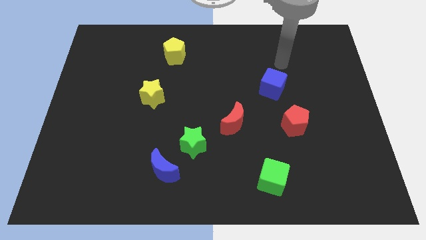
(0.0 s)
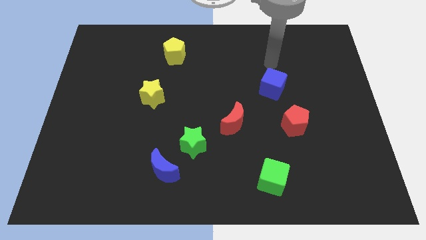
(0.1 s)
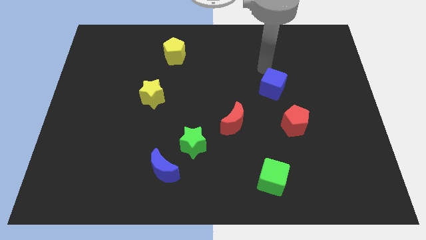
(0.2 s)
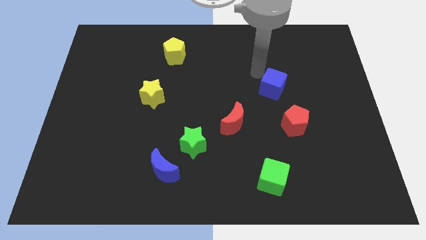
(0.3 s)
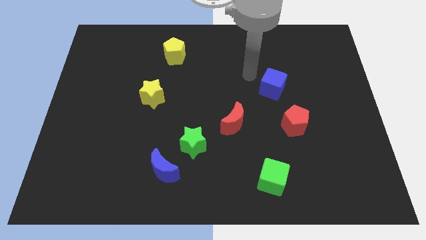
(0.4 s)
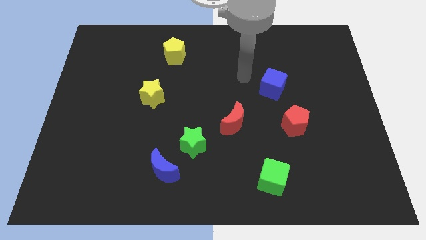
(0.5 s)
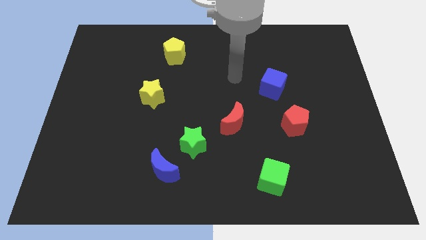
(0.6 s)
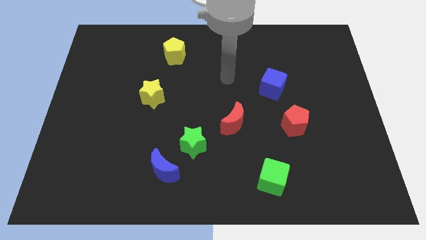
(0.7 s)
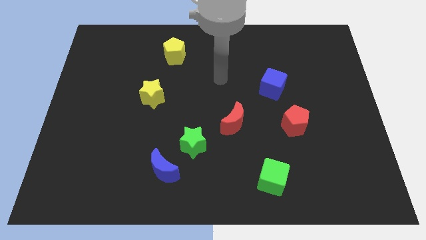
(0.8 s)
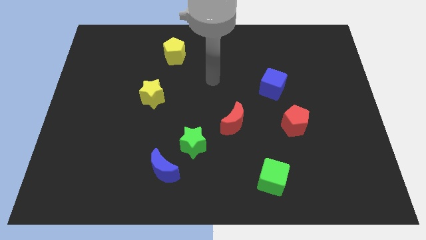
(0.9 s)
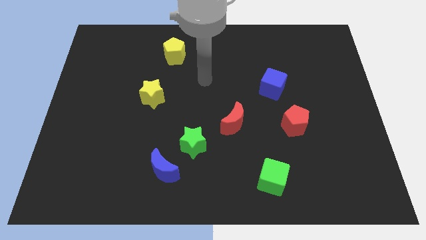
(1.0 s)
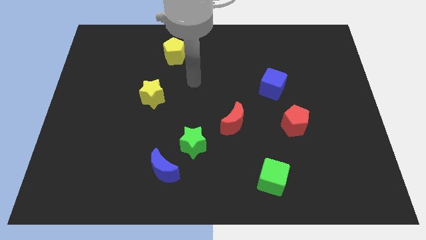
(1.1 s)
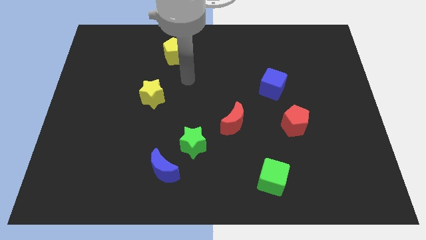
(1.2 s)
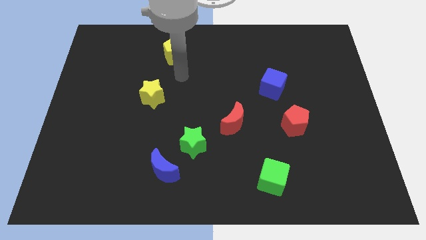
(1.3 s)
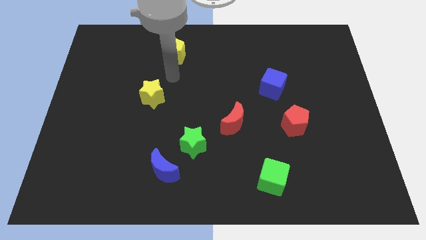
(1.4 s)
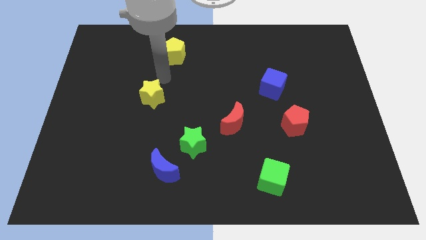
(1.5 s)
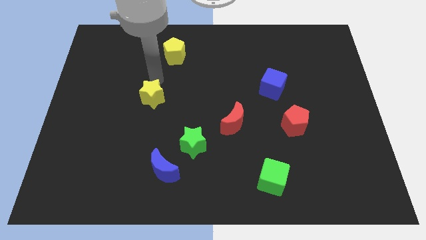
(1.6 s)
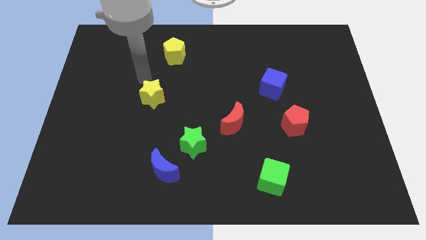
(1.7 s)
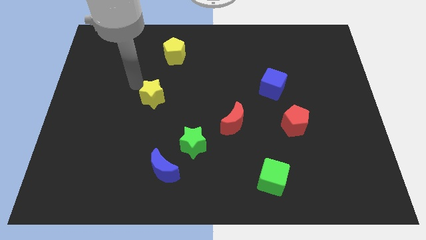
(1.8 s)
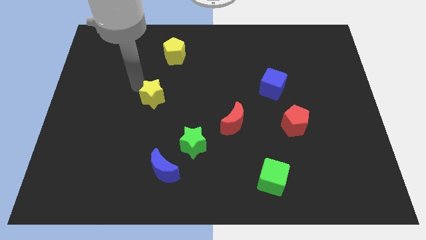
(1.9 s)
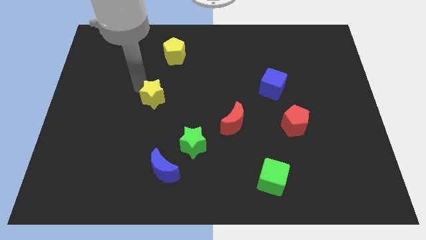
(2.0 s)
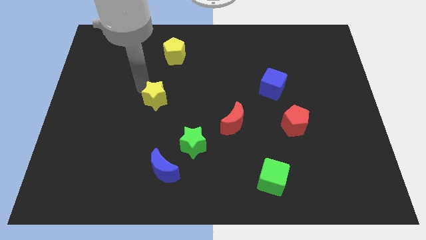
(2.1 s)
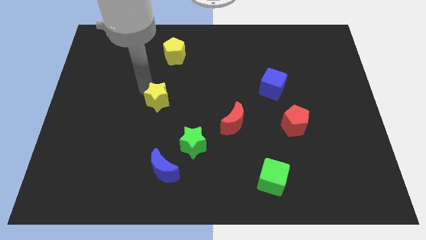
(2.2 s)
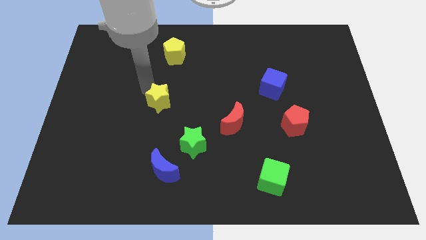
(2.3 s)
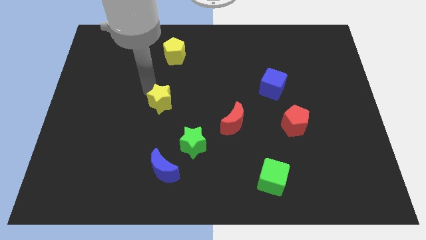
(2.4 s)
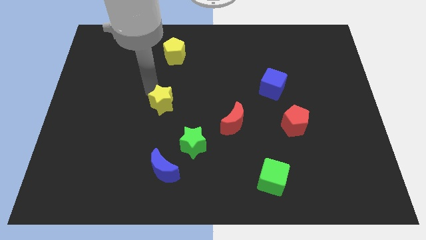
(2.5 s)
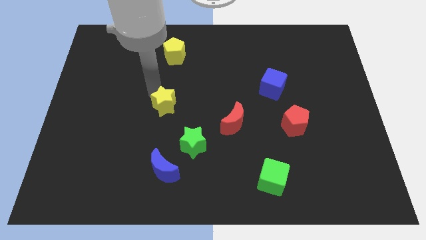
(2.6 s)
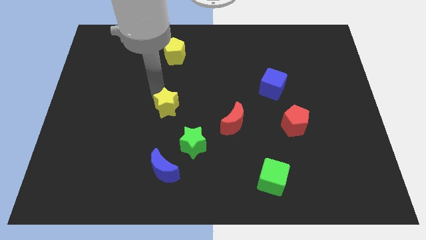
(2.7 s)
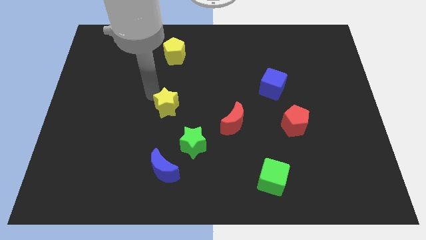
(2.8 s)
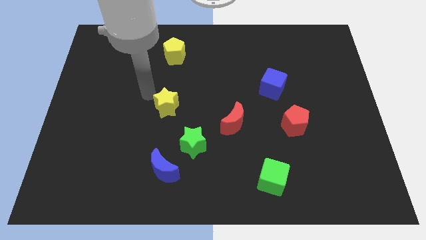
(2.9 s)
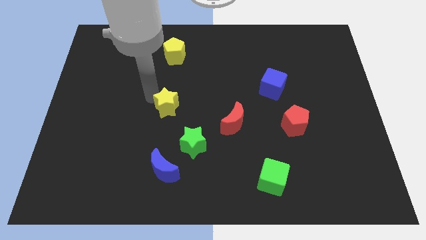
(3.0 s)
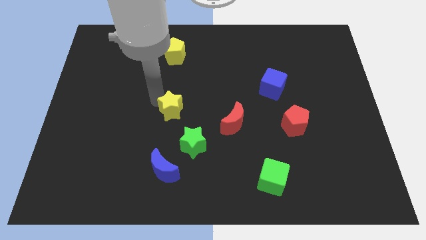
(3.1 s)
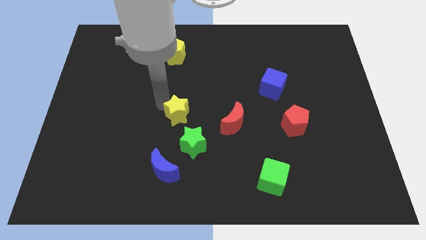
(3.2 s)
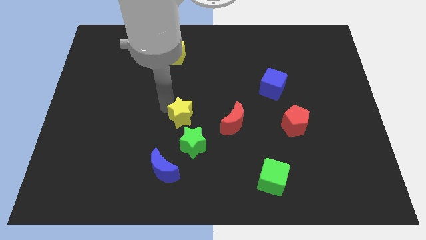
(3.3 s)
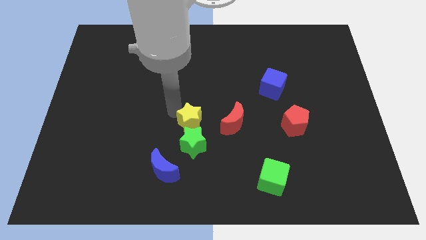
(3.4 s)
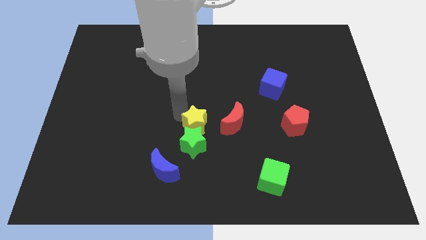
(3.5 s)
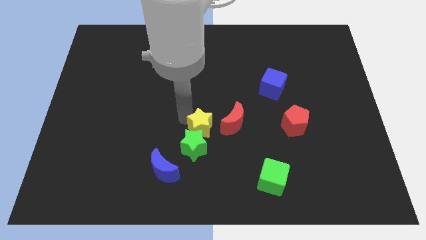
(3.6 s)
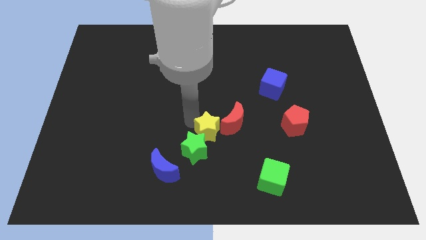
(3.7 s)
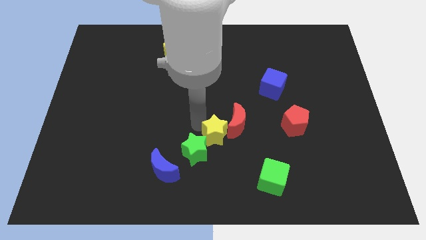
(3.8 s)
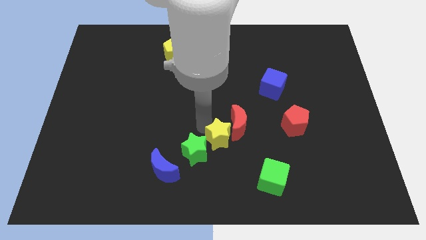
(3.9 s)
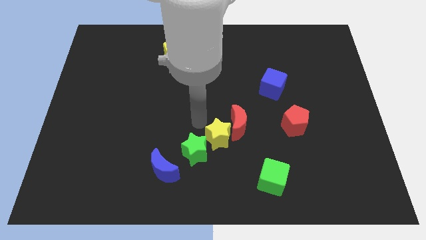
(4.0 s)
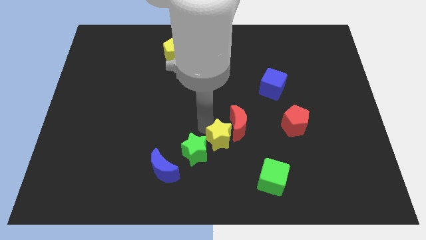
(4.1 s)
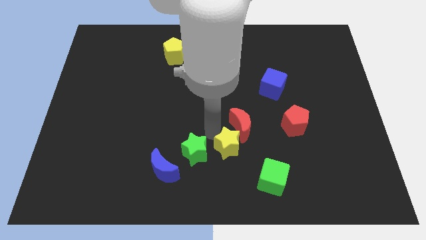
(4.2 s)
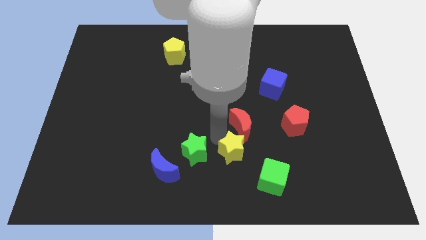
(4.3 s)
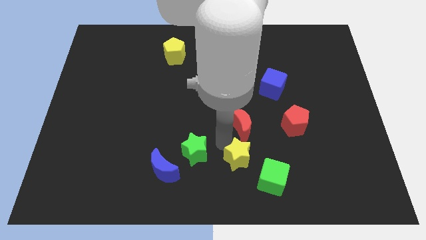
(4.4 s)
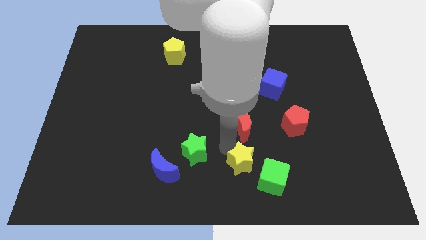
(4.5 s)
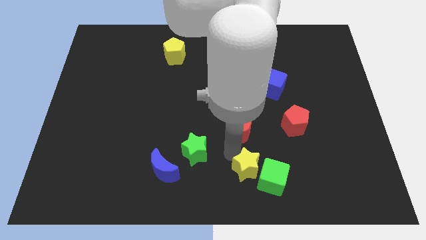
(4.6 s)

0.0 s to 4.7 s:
slide the yellow star close to the green cube

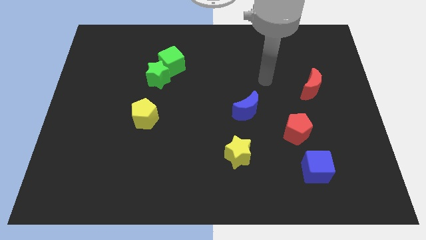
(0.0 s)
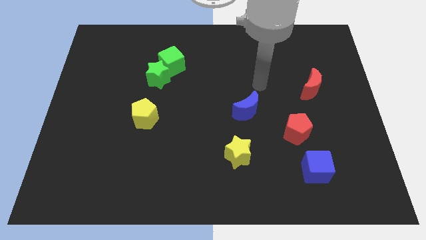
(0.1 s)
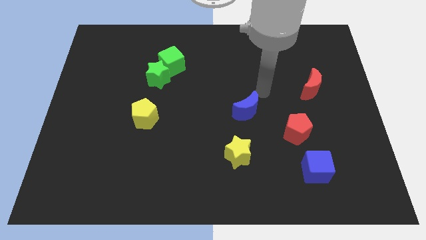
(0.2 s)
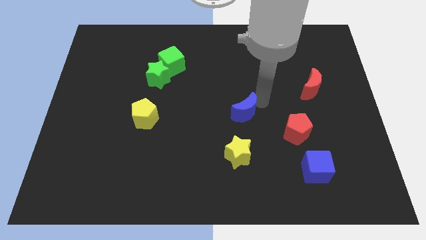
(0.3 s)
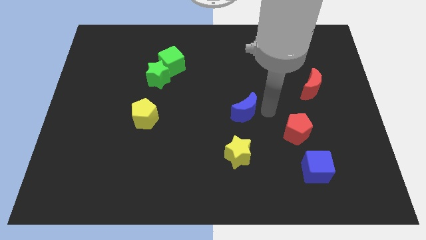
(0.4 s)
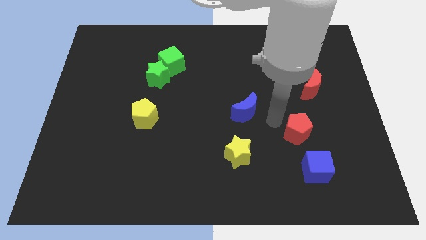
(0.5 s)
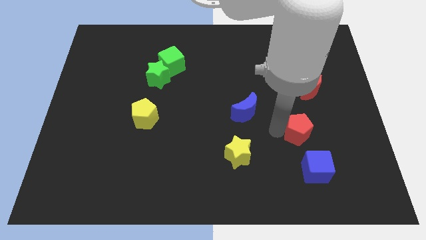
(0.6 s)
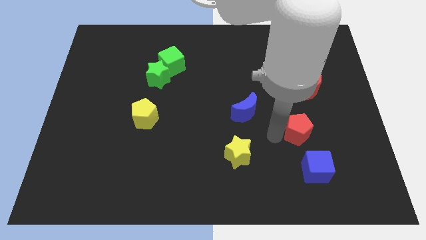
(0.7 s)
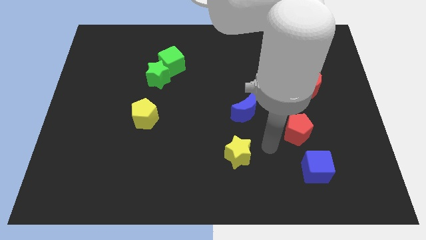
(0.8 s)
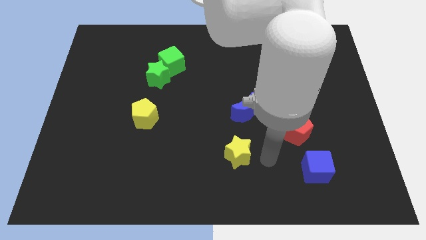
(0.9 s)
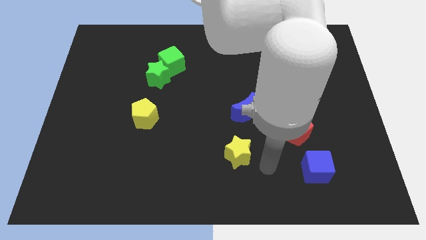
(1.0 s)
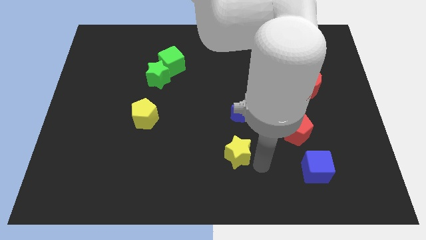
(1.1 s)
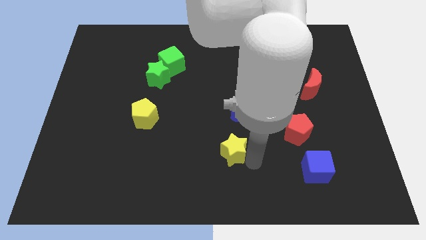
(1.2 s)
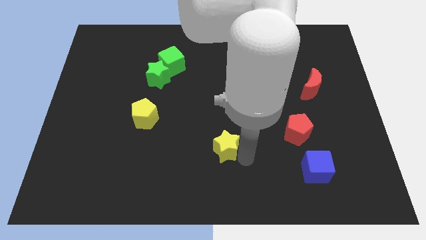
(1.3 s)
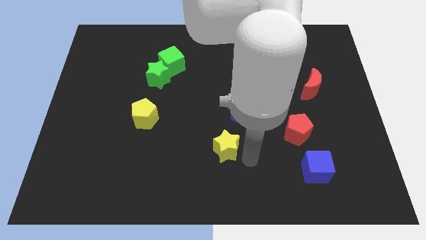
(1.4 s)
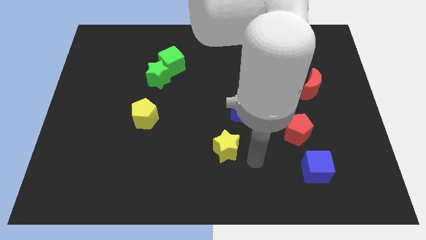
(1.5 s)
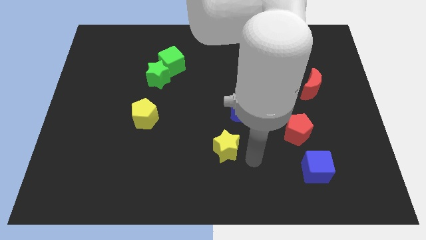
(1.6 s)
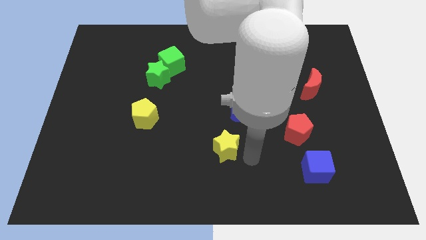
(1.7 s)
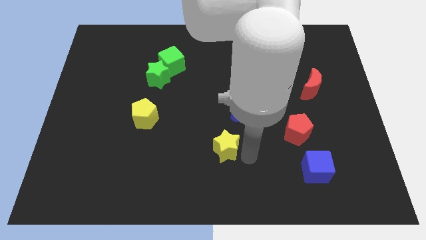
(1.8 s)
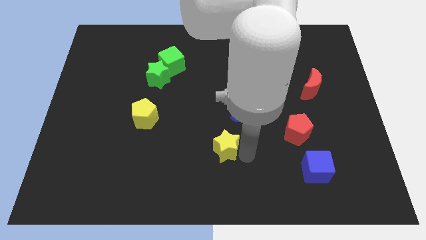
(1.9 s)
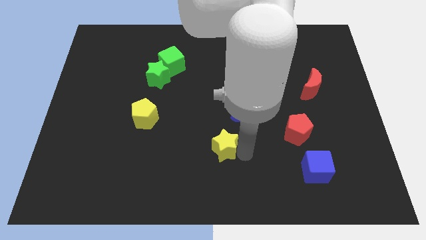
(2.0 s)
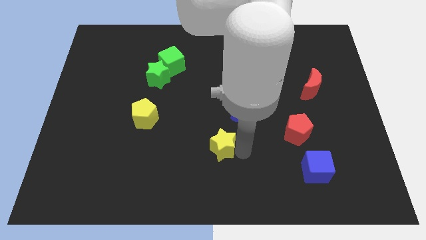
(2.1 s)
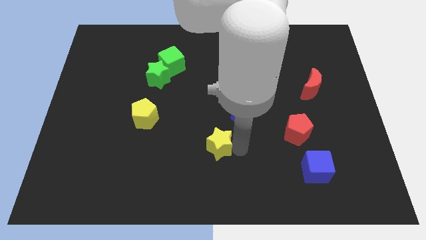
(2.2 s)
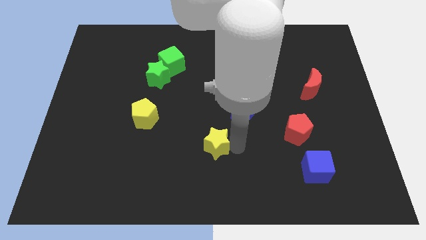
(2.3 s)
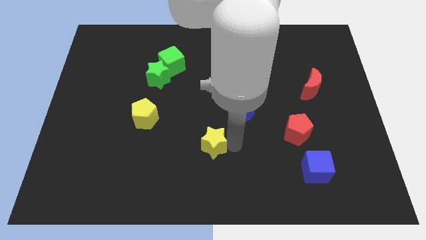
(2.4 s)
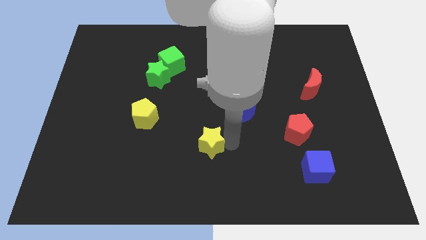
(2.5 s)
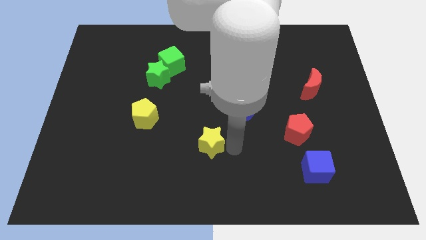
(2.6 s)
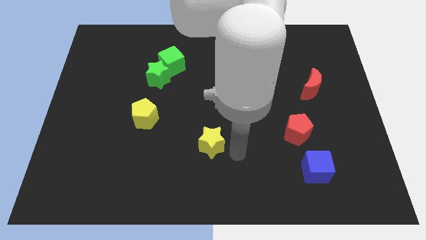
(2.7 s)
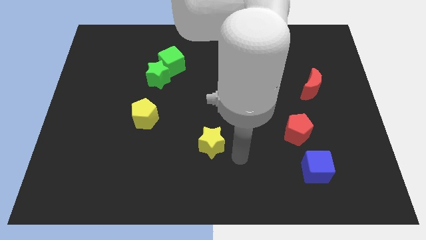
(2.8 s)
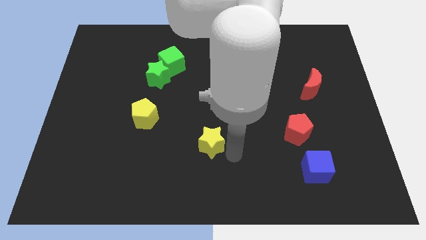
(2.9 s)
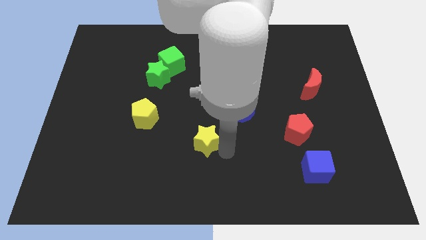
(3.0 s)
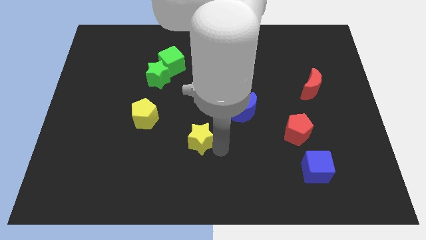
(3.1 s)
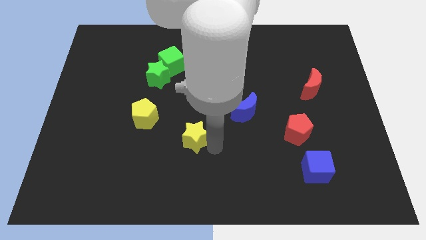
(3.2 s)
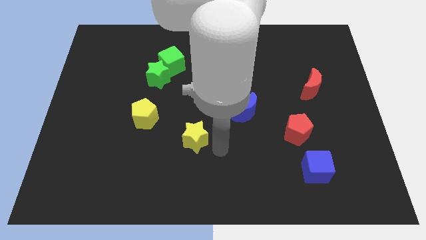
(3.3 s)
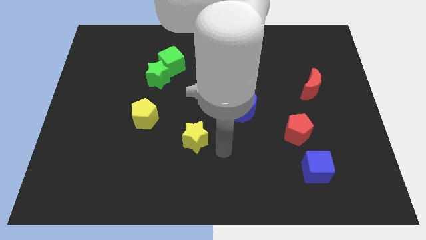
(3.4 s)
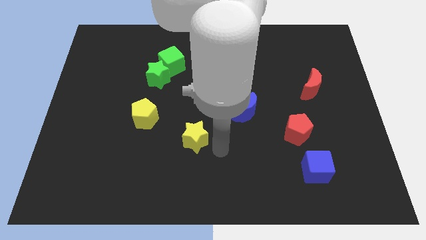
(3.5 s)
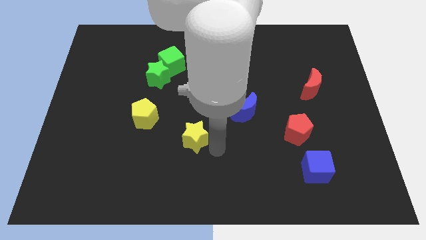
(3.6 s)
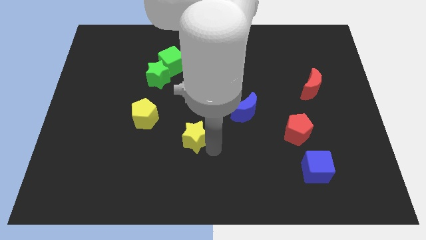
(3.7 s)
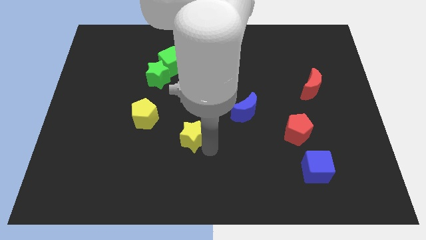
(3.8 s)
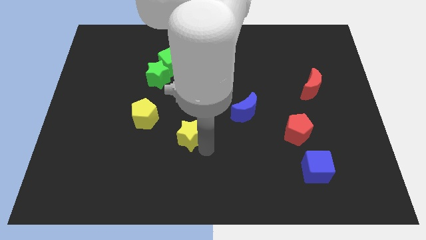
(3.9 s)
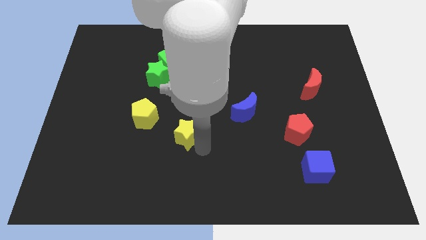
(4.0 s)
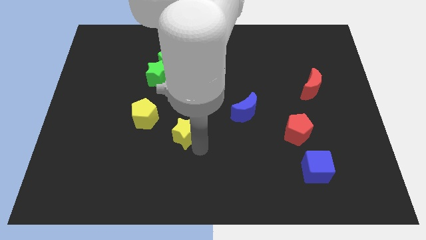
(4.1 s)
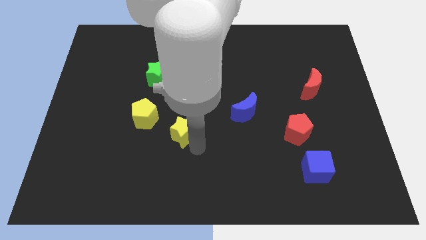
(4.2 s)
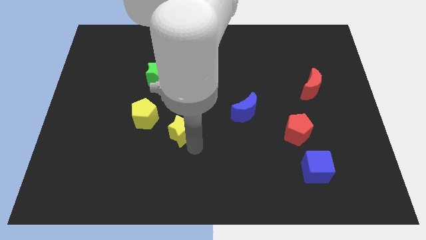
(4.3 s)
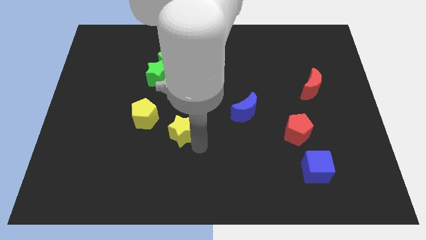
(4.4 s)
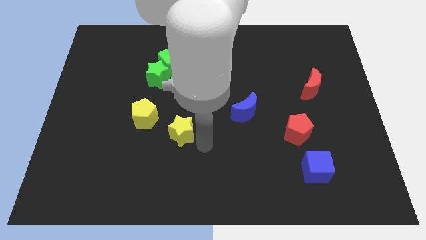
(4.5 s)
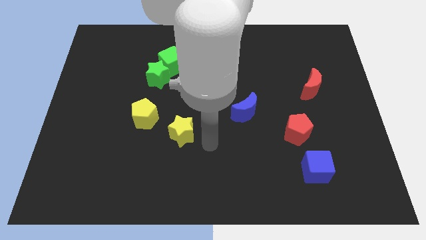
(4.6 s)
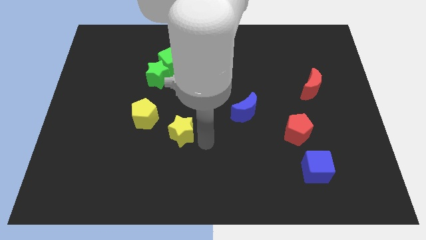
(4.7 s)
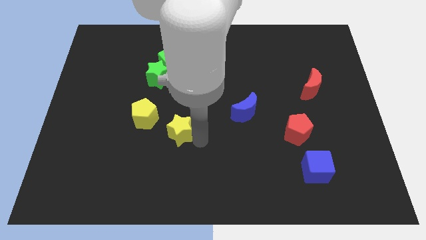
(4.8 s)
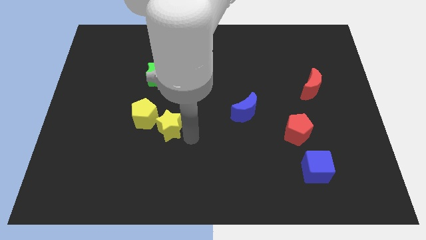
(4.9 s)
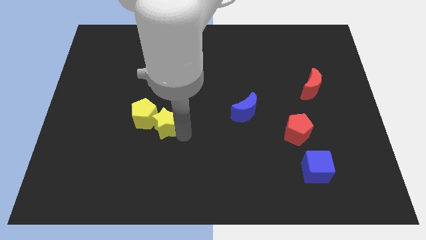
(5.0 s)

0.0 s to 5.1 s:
move the yellow star towards the yellow pentagon
